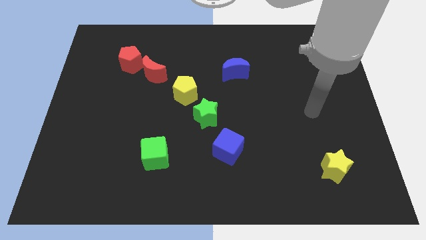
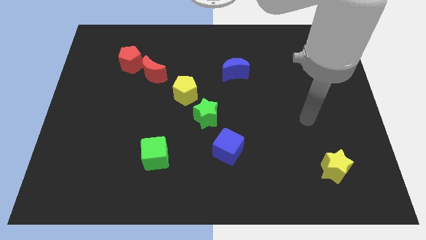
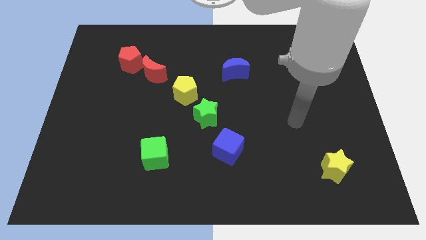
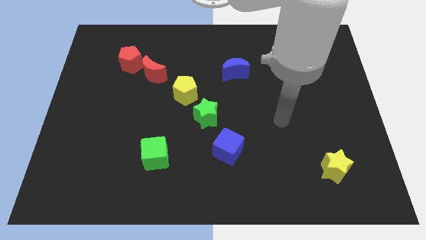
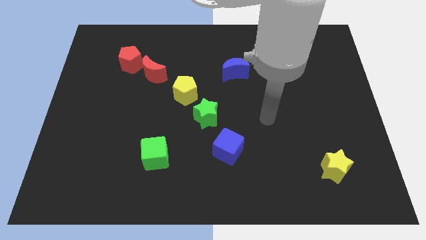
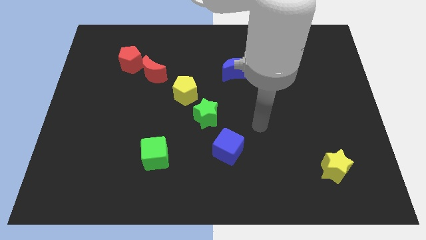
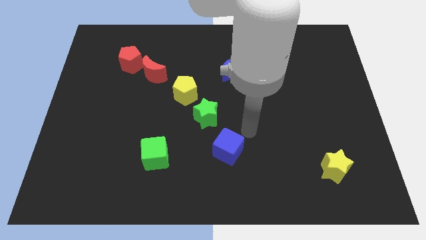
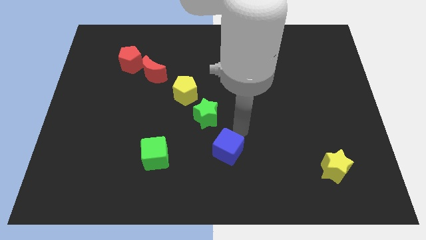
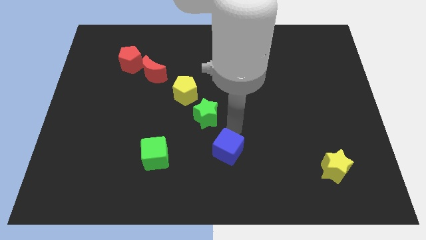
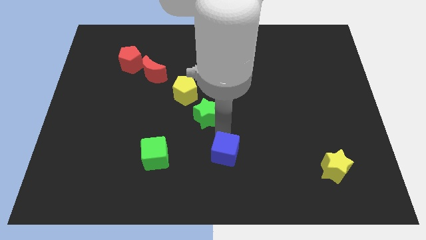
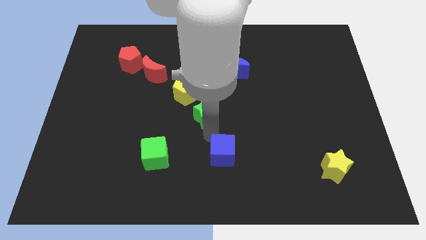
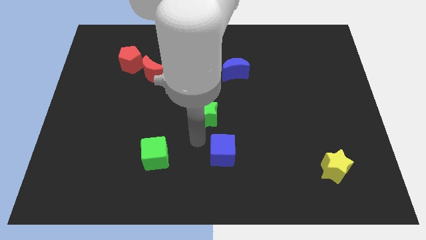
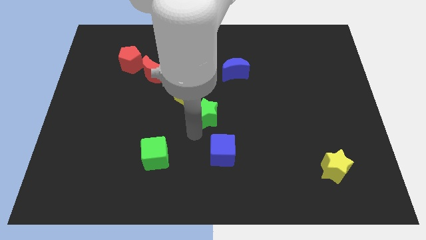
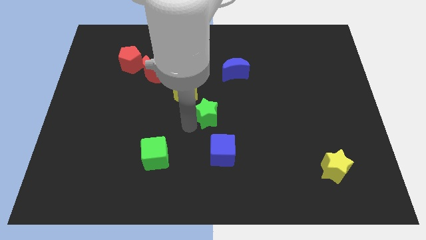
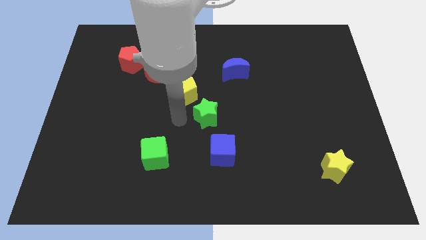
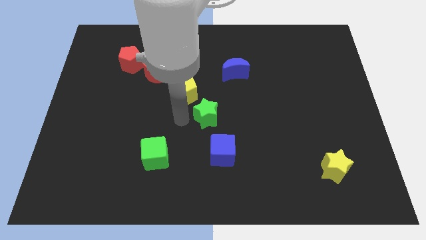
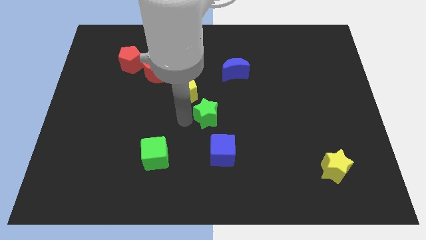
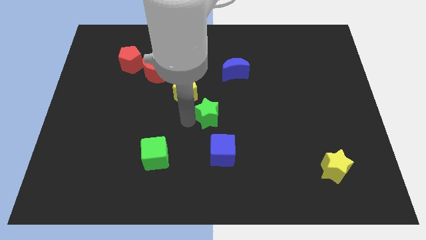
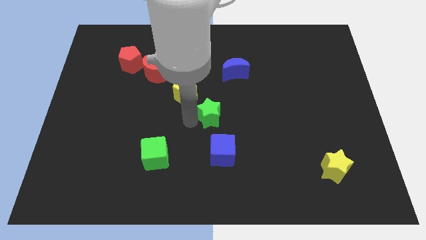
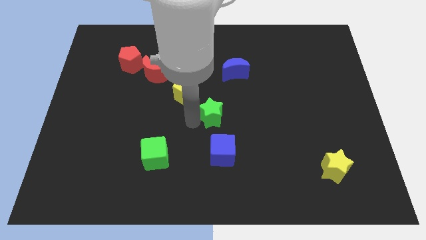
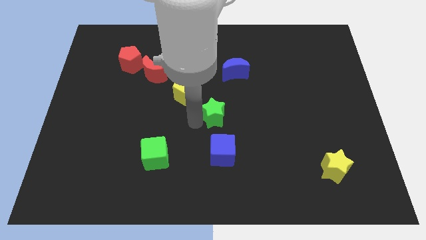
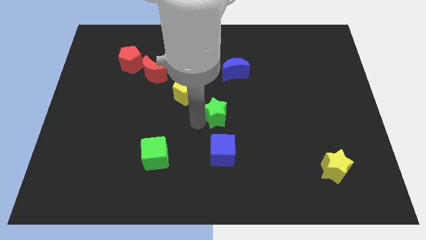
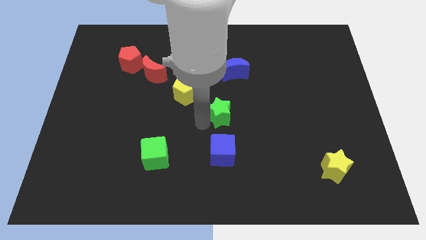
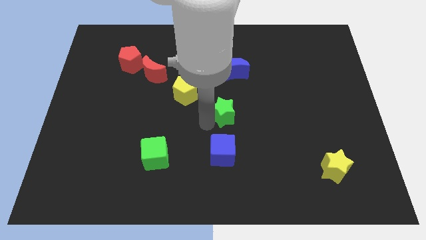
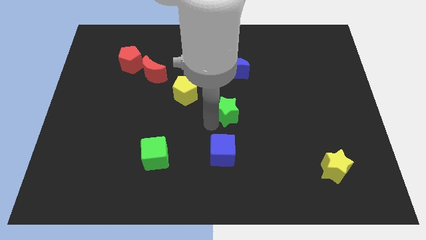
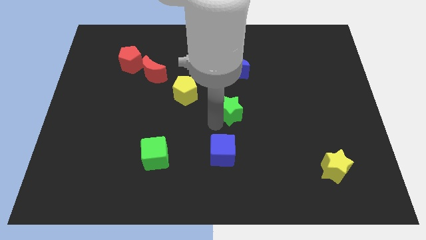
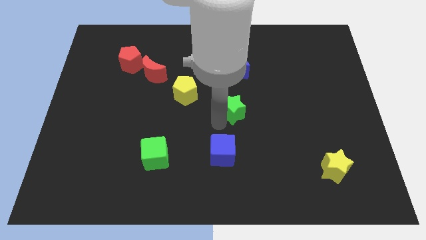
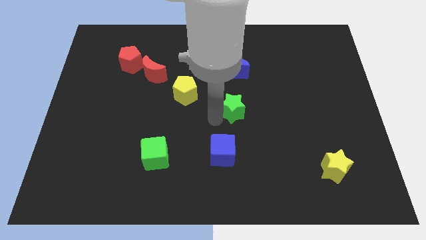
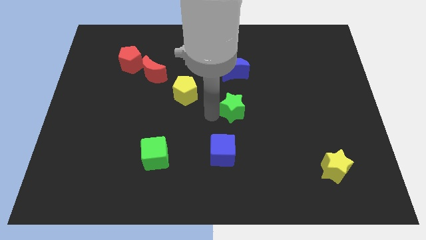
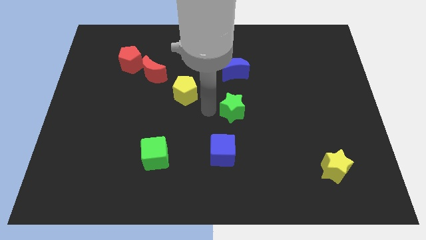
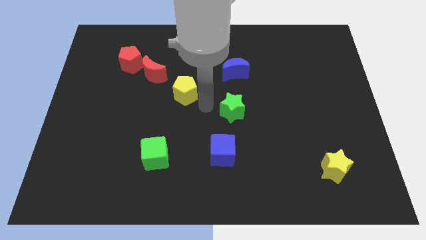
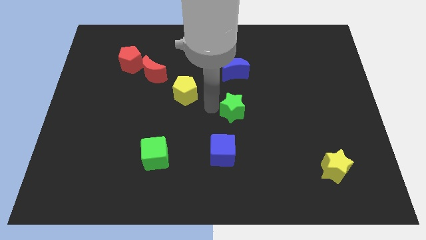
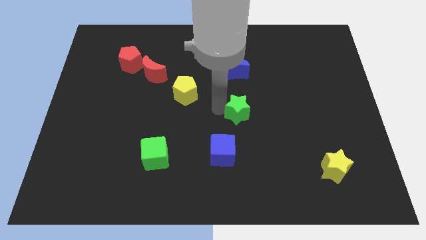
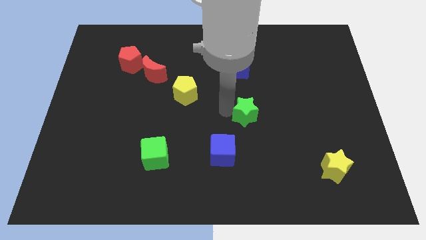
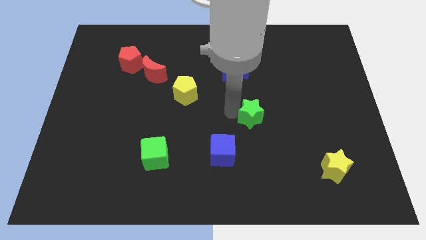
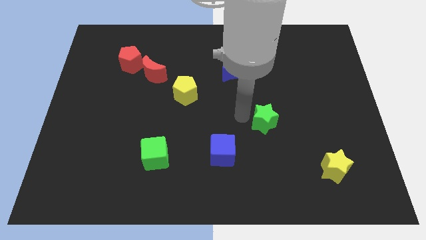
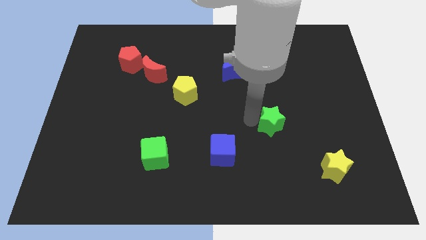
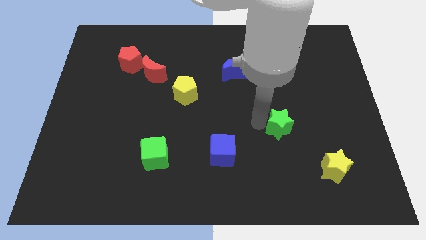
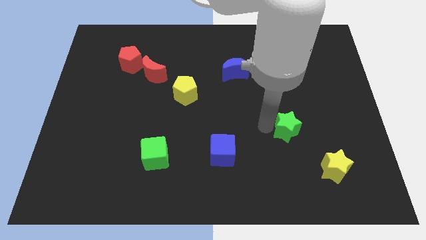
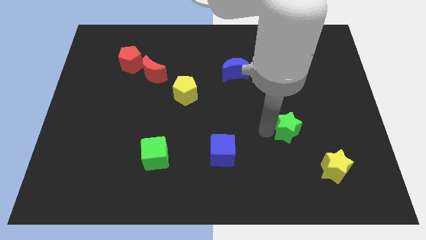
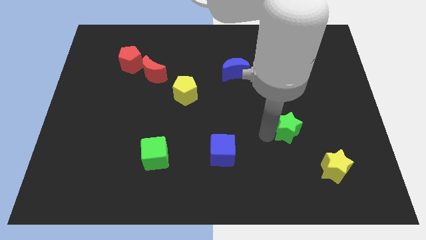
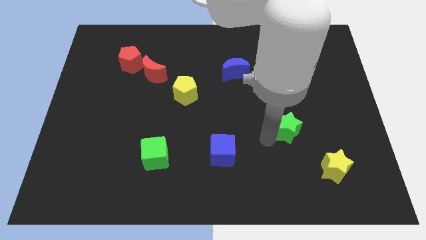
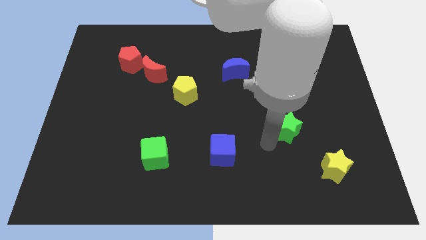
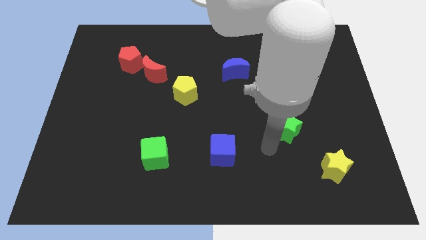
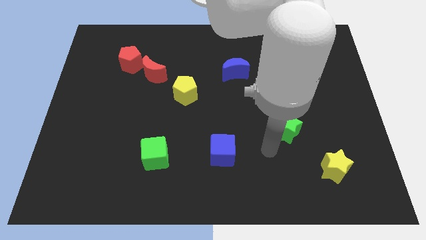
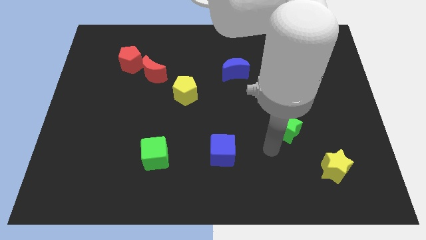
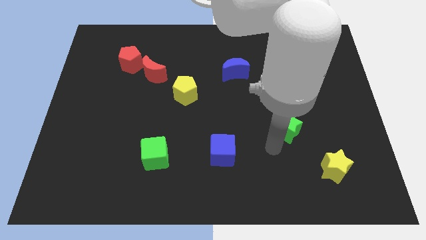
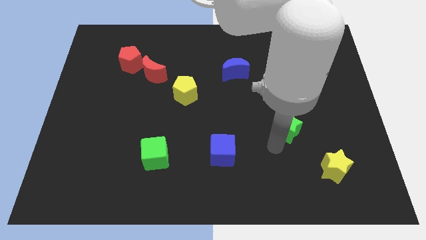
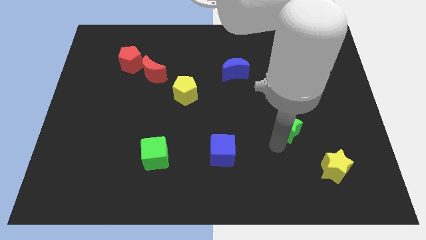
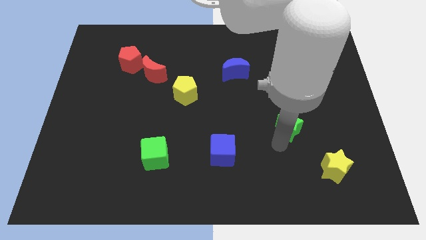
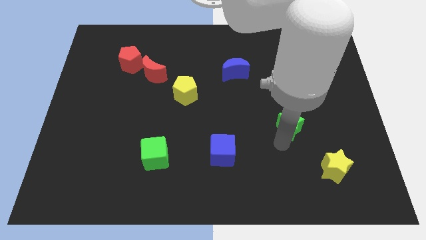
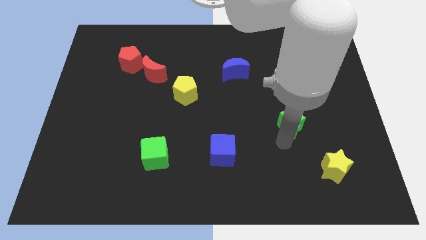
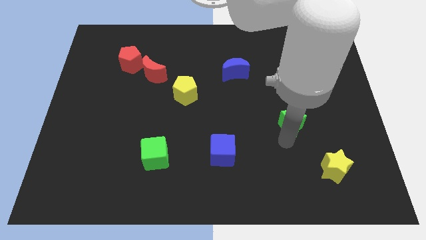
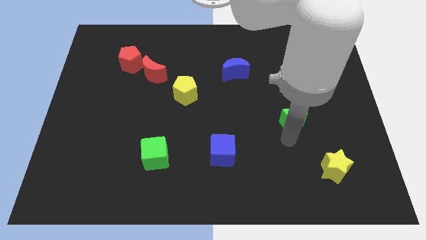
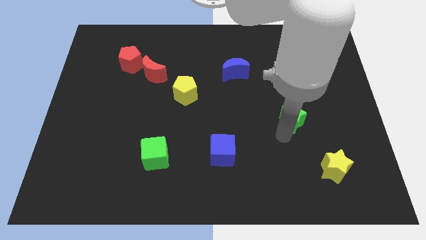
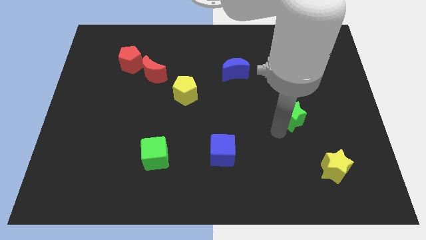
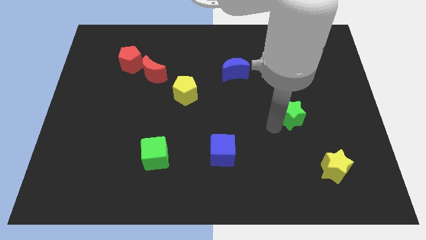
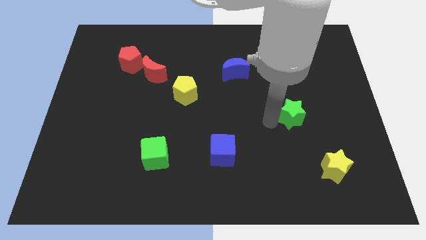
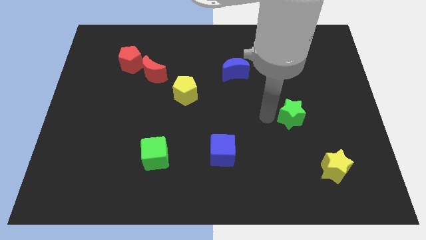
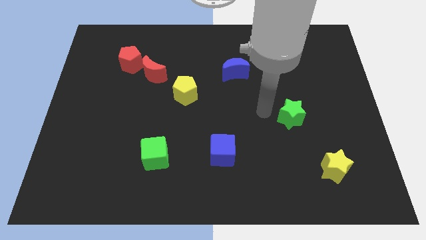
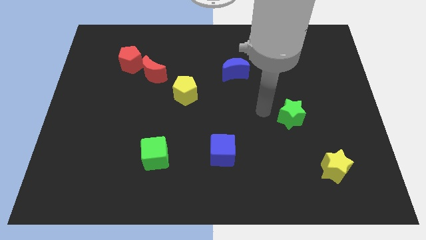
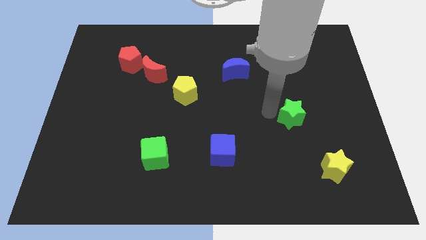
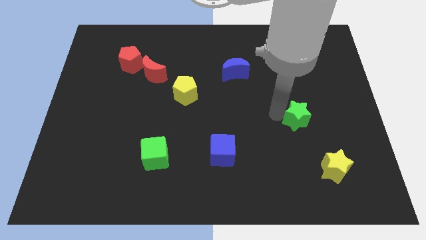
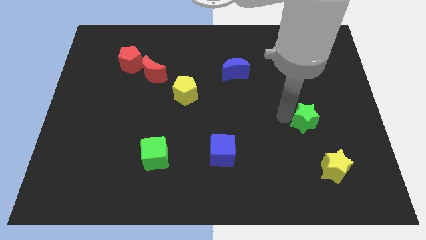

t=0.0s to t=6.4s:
put the green star above the yellow star

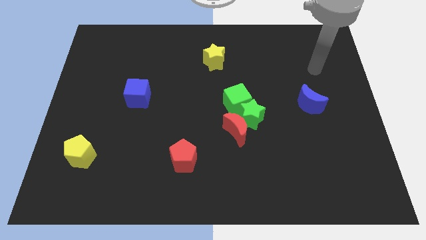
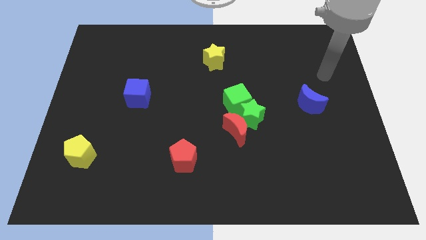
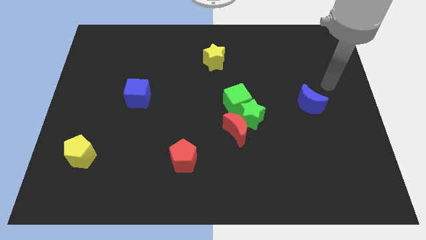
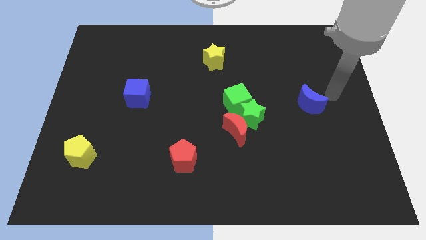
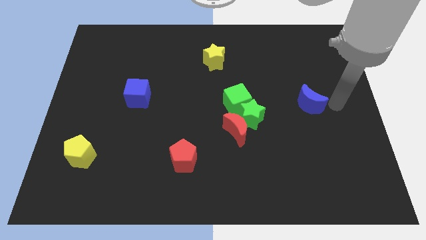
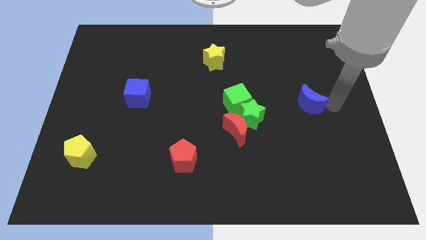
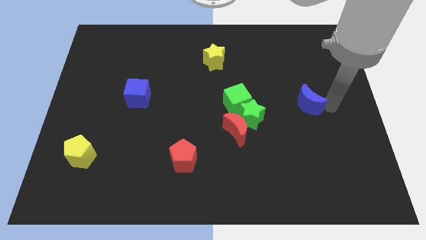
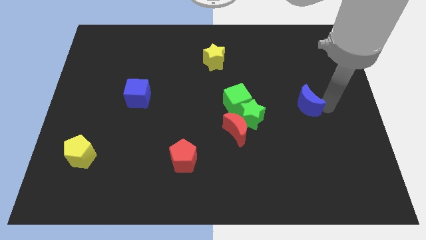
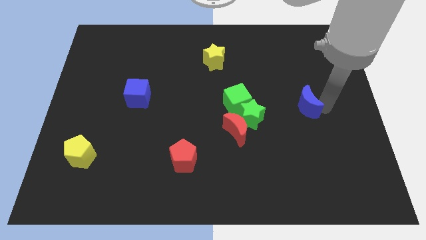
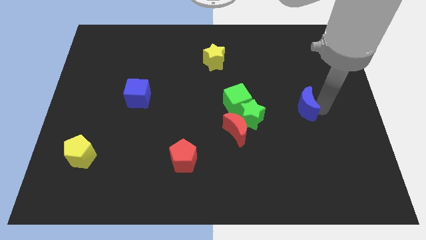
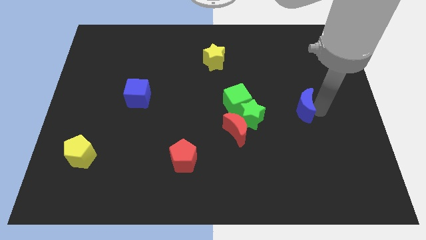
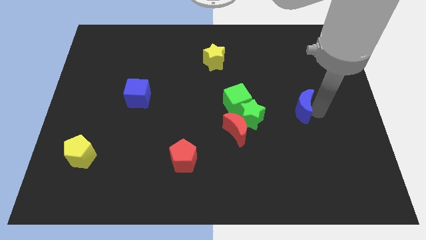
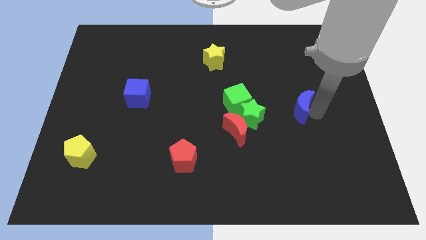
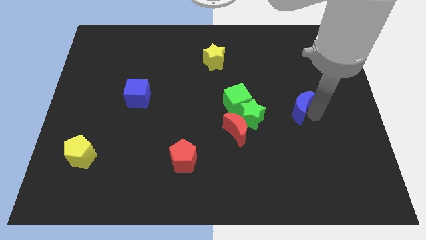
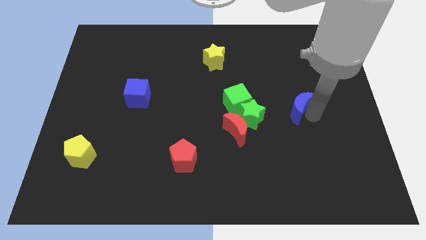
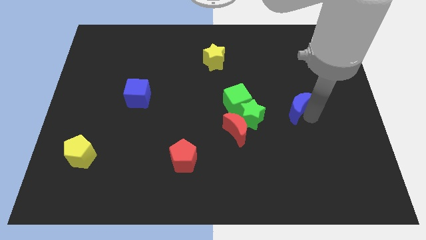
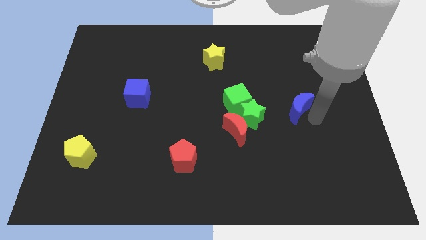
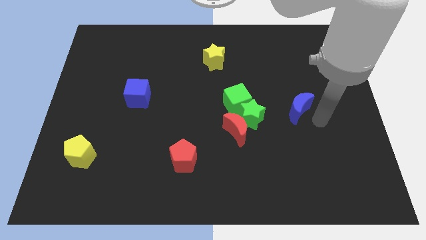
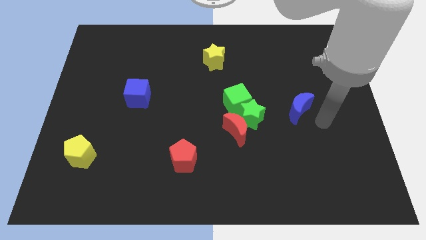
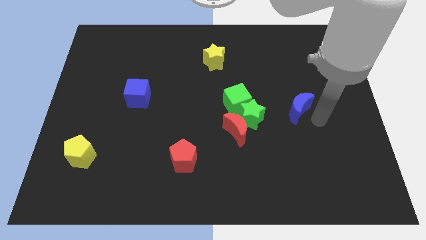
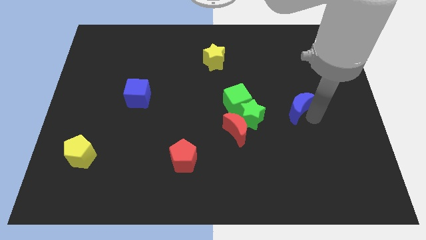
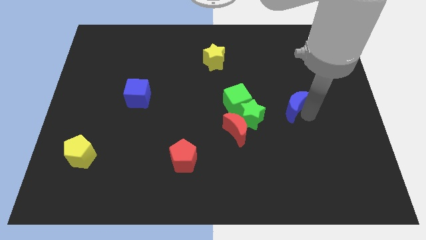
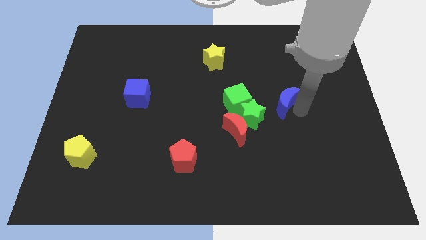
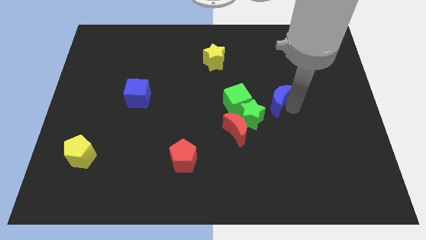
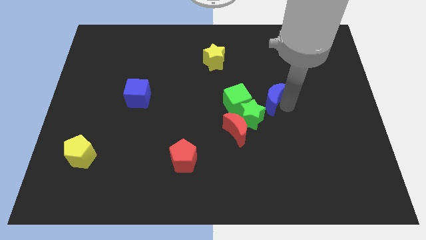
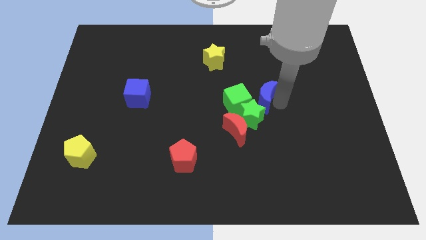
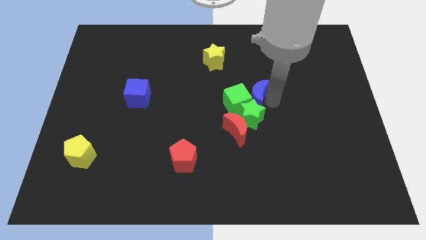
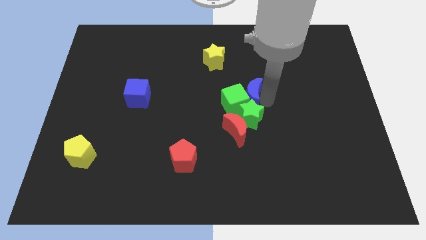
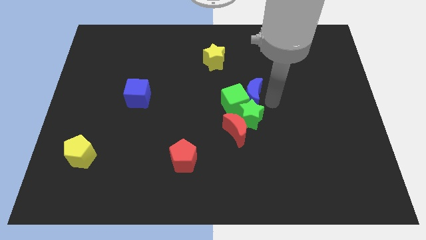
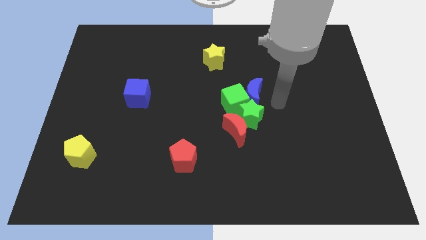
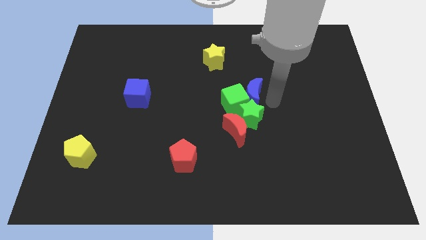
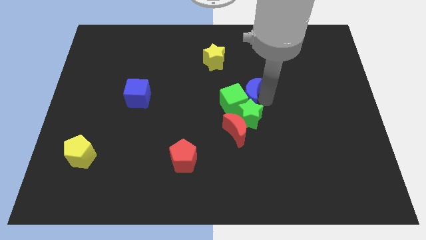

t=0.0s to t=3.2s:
slide the blue moon diagonally up and to the left of the green star
